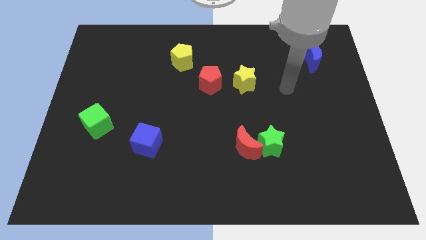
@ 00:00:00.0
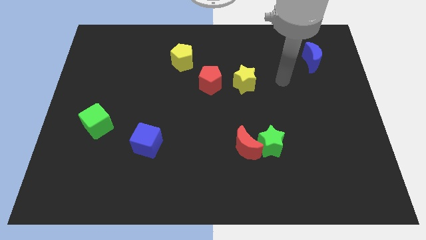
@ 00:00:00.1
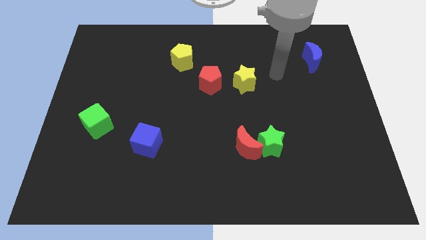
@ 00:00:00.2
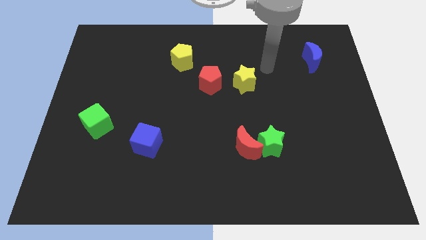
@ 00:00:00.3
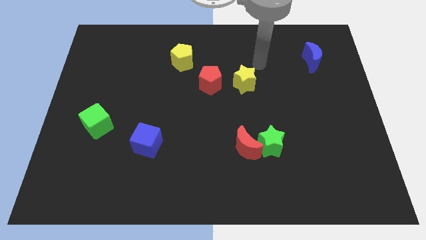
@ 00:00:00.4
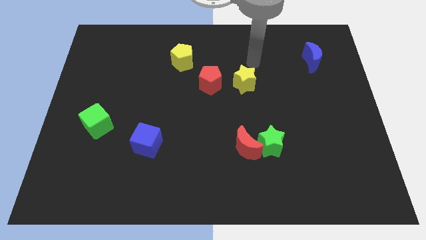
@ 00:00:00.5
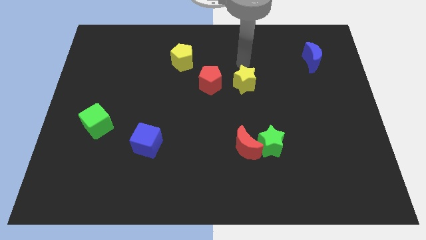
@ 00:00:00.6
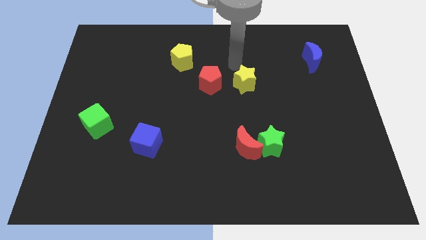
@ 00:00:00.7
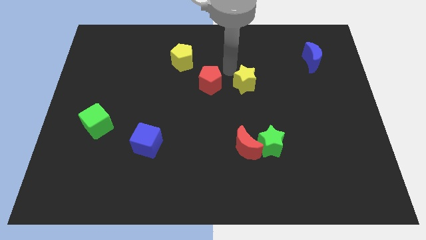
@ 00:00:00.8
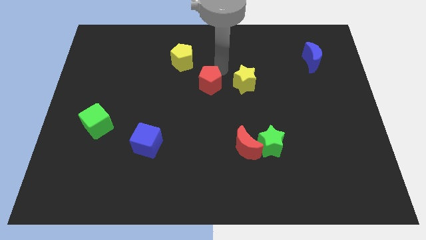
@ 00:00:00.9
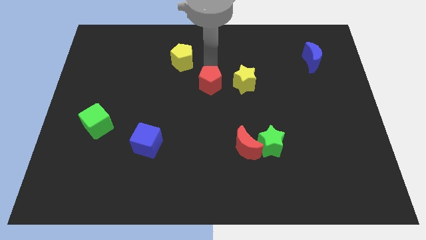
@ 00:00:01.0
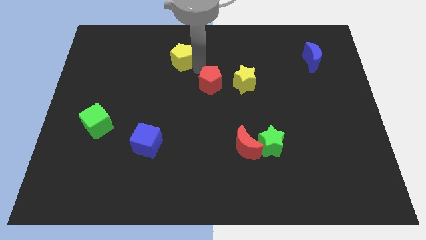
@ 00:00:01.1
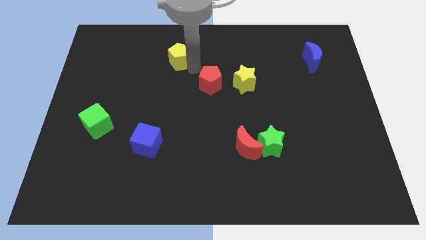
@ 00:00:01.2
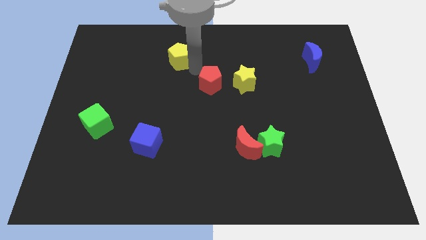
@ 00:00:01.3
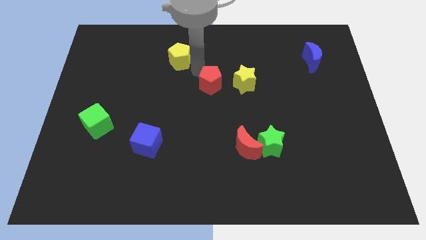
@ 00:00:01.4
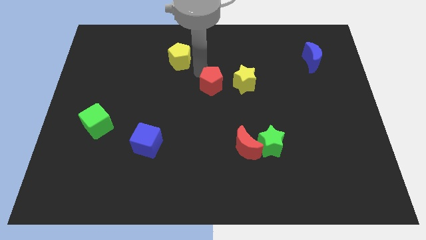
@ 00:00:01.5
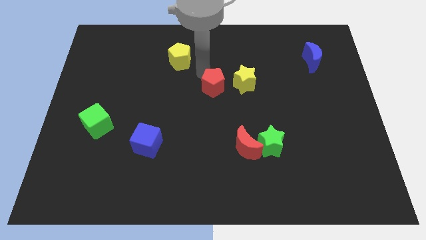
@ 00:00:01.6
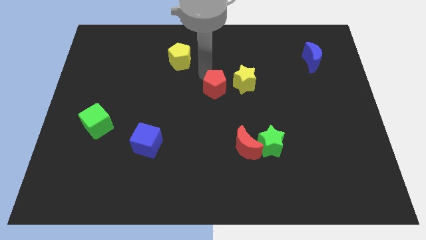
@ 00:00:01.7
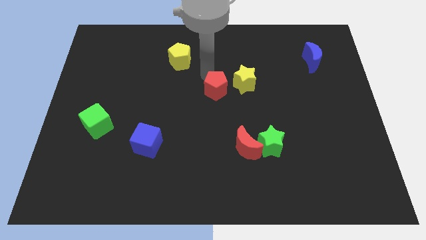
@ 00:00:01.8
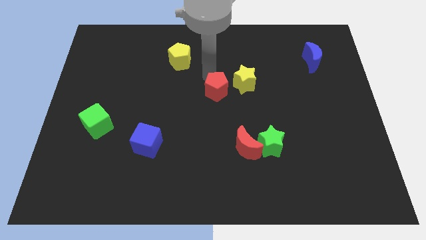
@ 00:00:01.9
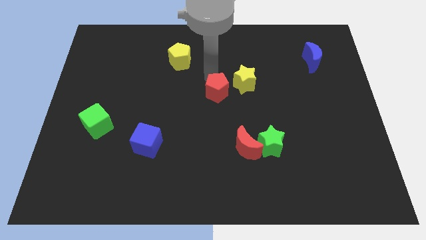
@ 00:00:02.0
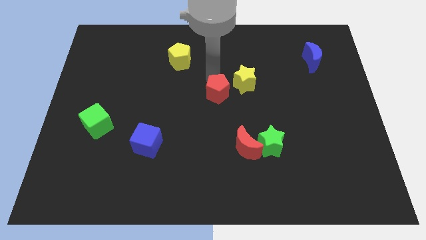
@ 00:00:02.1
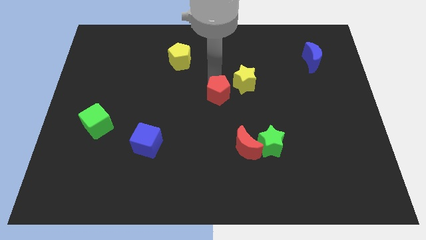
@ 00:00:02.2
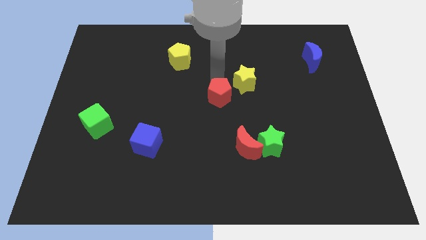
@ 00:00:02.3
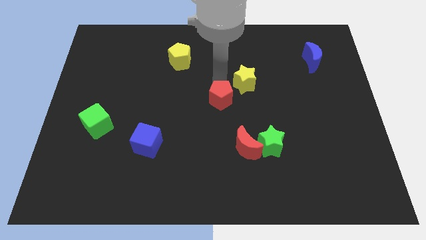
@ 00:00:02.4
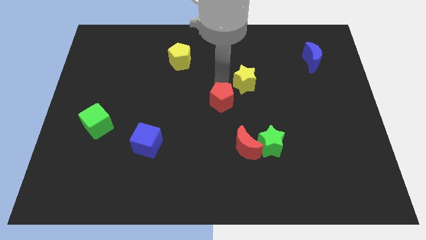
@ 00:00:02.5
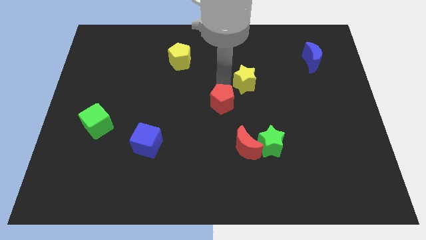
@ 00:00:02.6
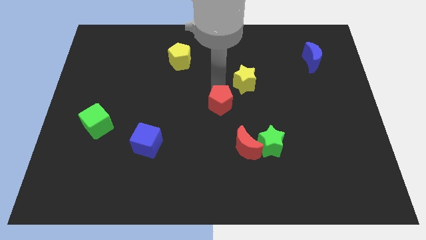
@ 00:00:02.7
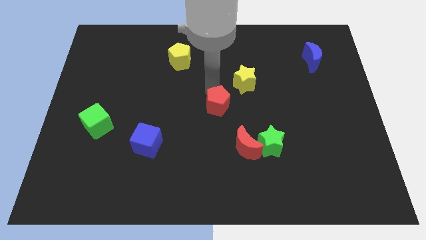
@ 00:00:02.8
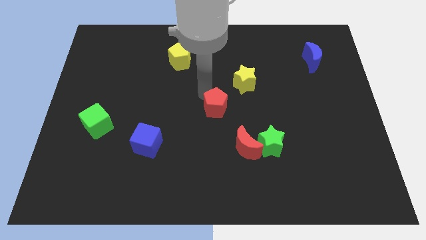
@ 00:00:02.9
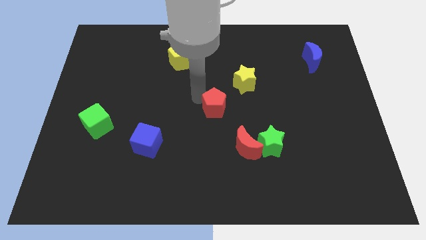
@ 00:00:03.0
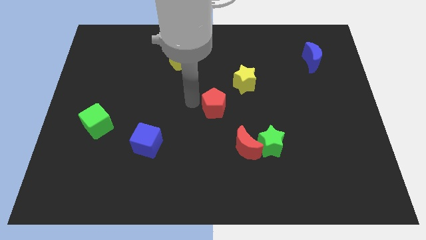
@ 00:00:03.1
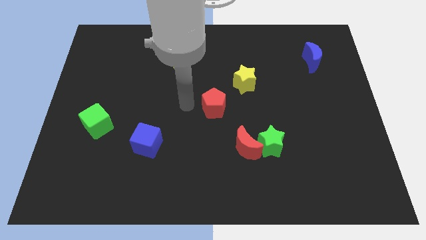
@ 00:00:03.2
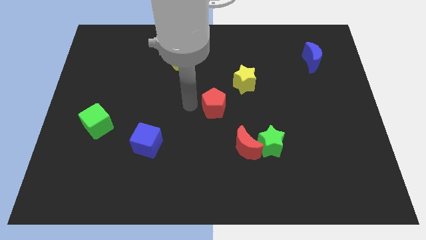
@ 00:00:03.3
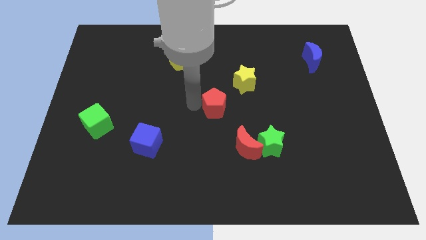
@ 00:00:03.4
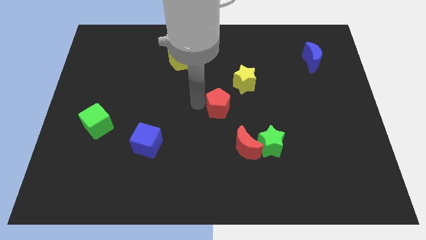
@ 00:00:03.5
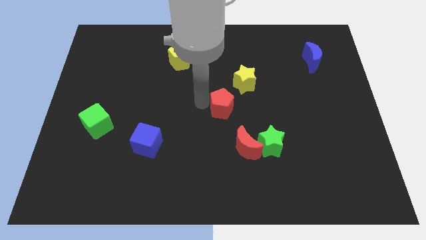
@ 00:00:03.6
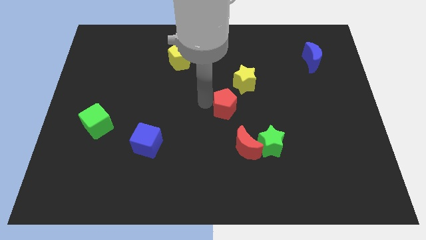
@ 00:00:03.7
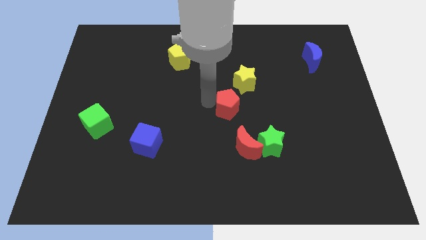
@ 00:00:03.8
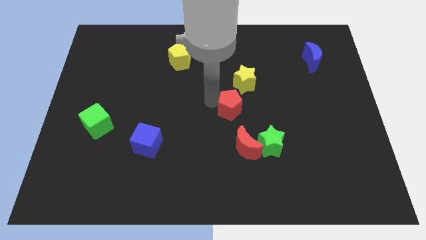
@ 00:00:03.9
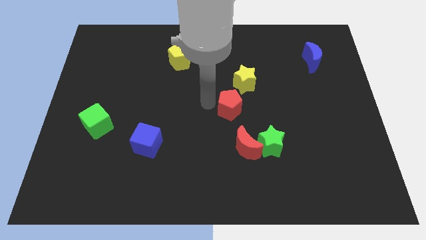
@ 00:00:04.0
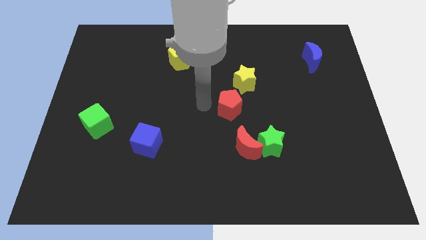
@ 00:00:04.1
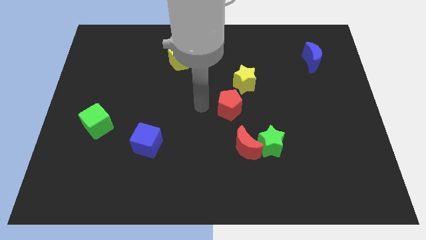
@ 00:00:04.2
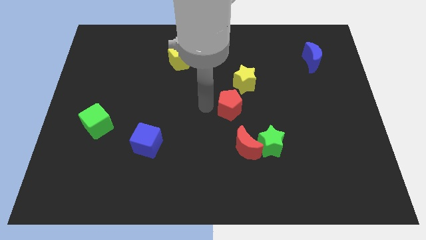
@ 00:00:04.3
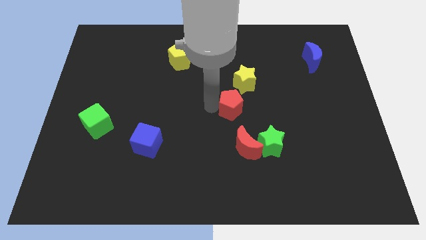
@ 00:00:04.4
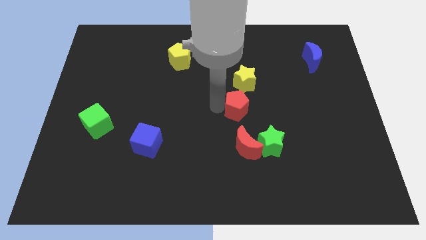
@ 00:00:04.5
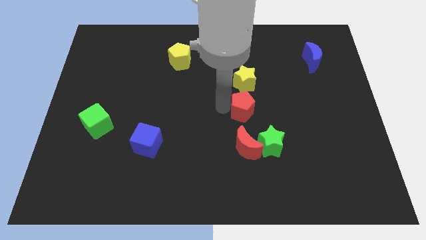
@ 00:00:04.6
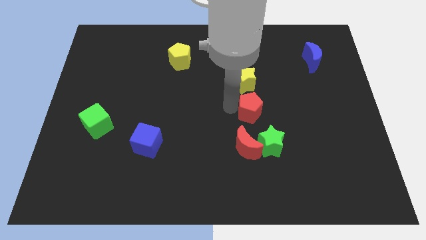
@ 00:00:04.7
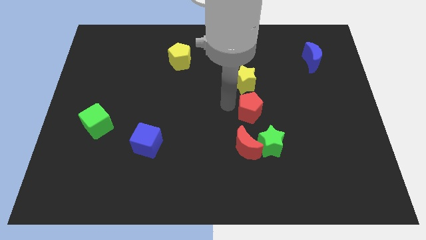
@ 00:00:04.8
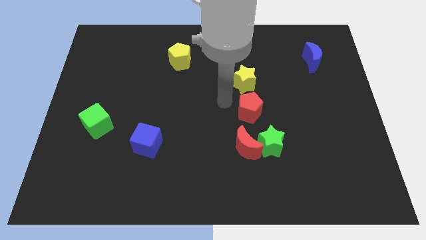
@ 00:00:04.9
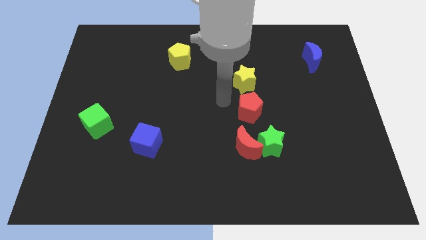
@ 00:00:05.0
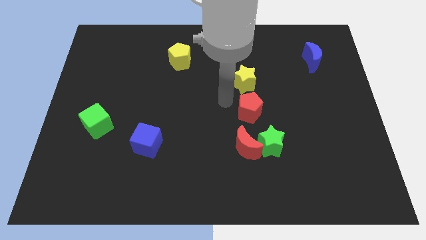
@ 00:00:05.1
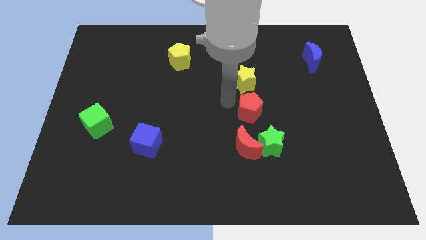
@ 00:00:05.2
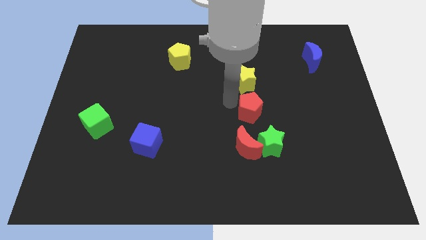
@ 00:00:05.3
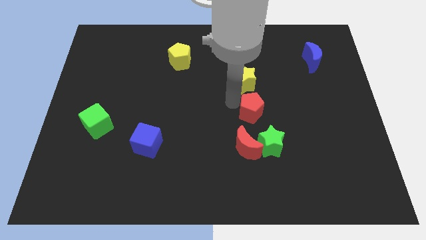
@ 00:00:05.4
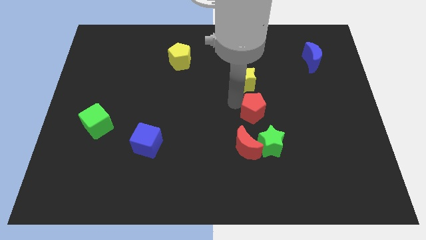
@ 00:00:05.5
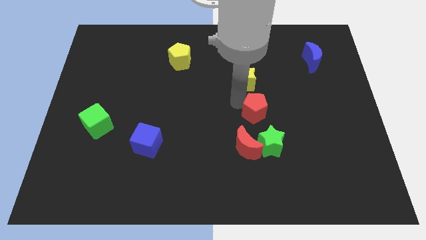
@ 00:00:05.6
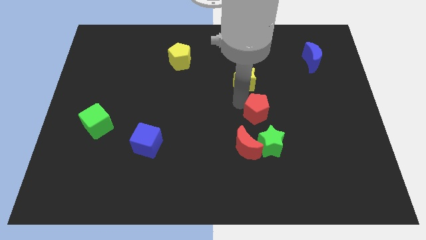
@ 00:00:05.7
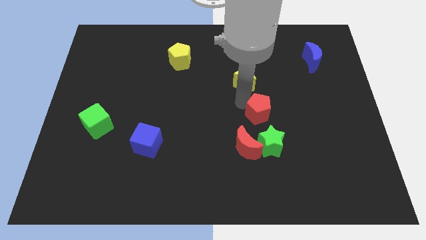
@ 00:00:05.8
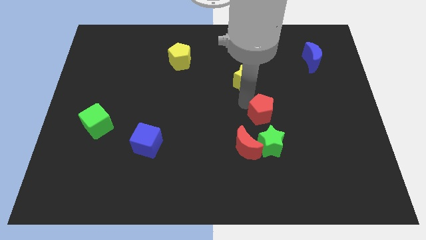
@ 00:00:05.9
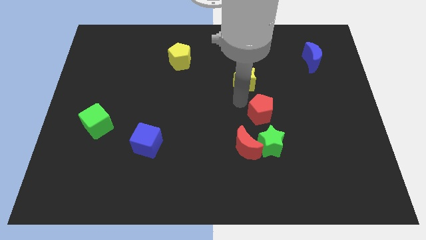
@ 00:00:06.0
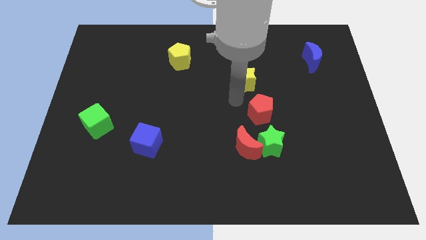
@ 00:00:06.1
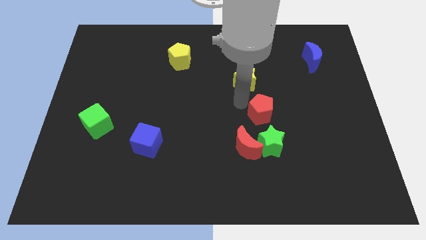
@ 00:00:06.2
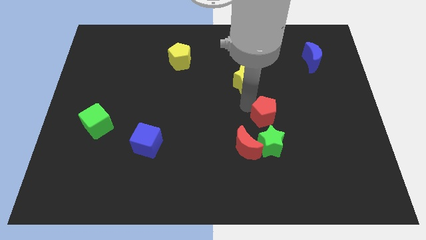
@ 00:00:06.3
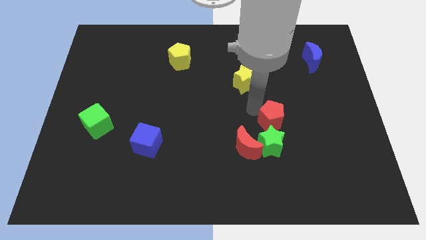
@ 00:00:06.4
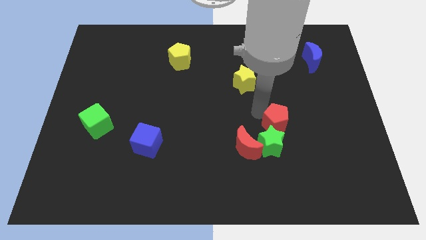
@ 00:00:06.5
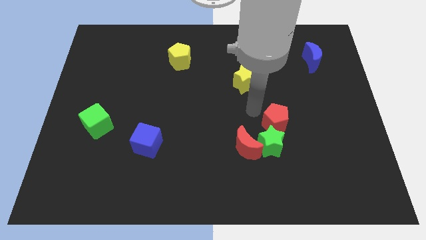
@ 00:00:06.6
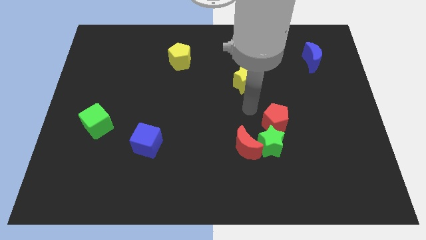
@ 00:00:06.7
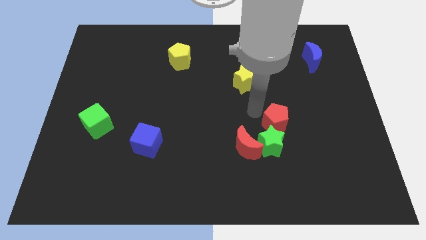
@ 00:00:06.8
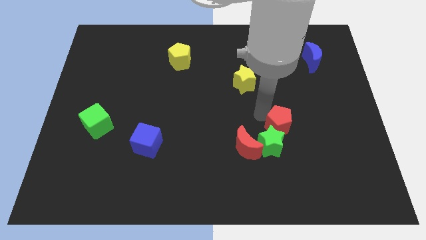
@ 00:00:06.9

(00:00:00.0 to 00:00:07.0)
push the red pentagon downwards and to the right diagonally

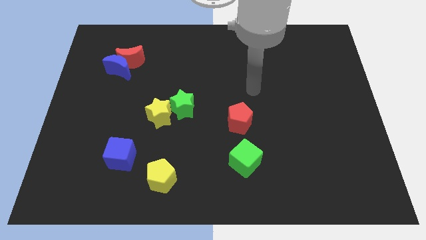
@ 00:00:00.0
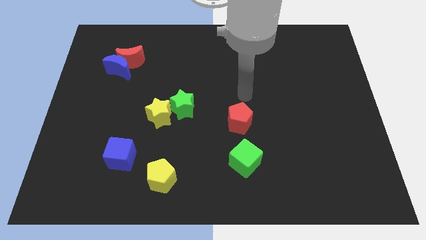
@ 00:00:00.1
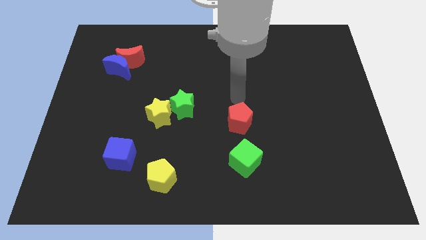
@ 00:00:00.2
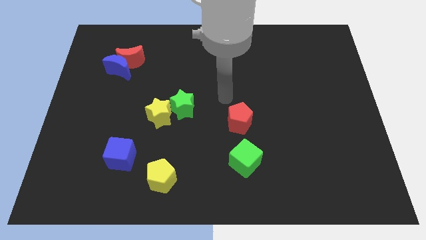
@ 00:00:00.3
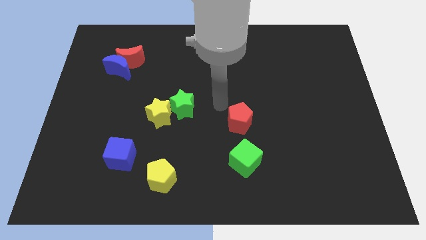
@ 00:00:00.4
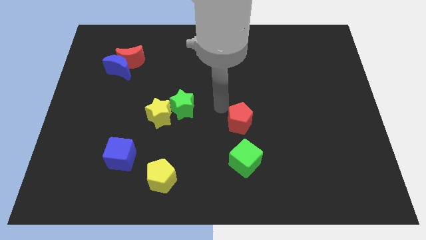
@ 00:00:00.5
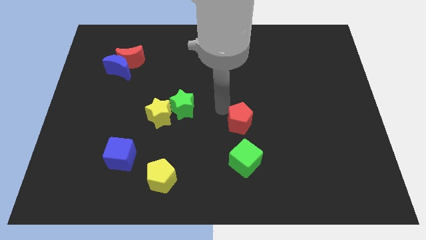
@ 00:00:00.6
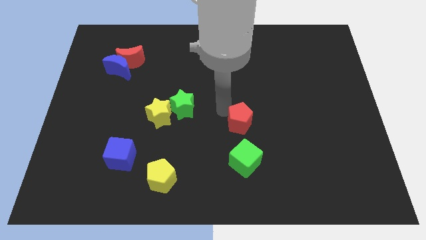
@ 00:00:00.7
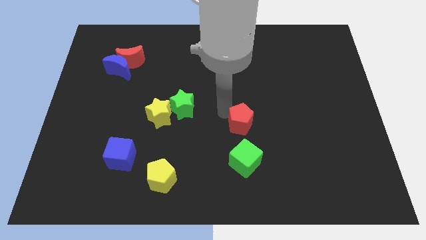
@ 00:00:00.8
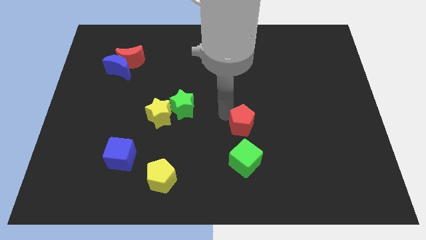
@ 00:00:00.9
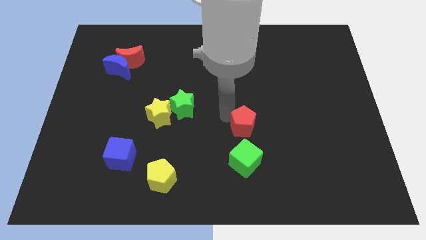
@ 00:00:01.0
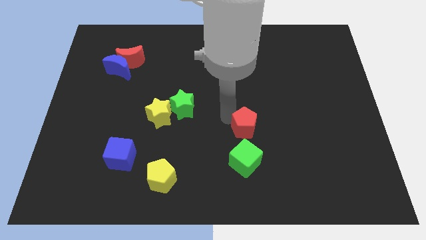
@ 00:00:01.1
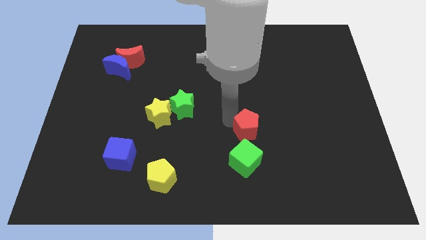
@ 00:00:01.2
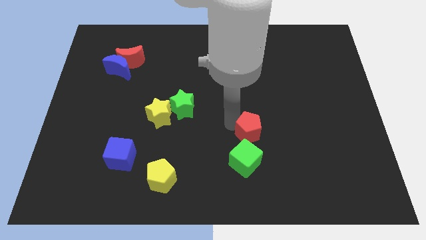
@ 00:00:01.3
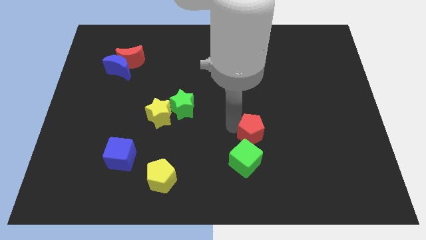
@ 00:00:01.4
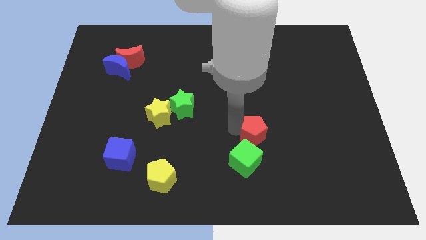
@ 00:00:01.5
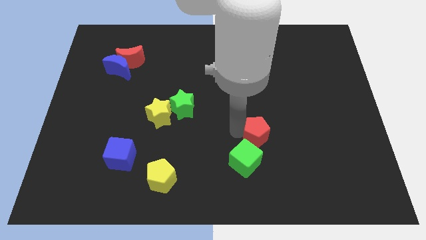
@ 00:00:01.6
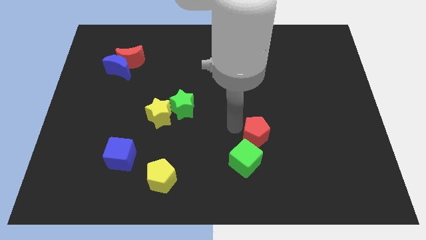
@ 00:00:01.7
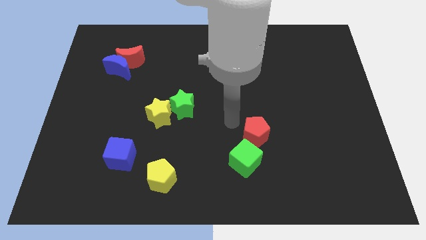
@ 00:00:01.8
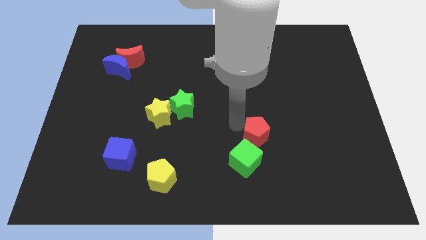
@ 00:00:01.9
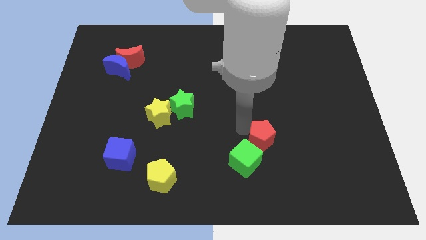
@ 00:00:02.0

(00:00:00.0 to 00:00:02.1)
move the red pentagon slightly downwards and to the right diagonally
